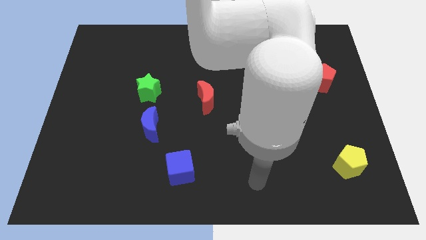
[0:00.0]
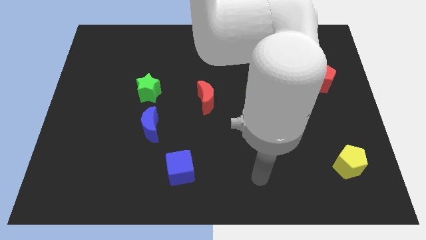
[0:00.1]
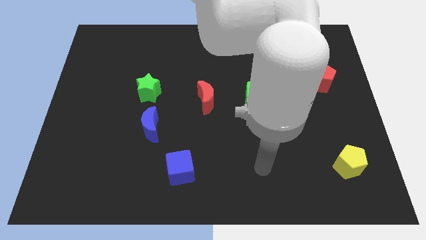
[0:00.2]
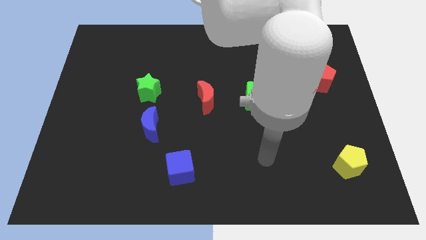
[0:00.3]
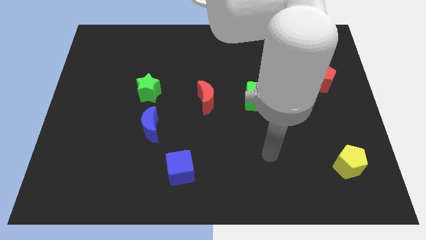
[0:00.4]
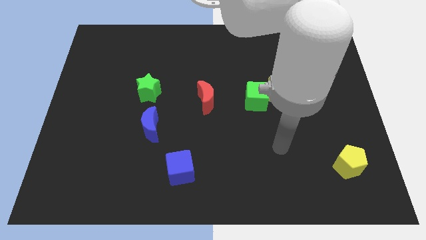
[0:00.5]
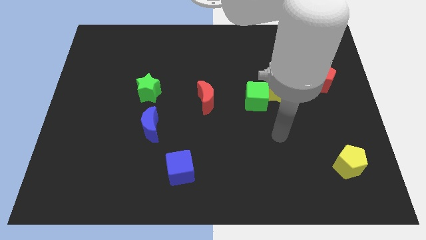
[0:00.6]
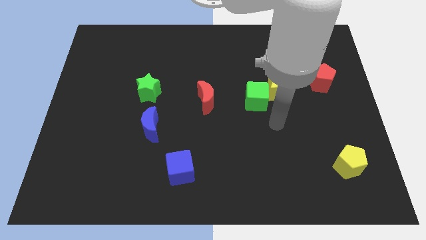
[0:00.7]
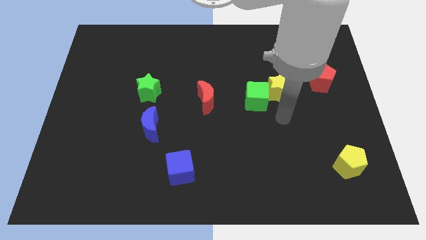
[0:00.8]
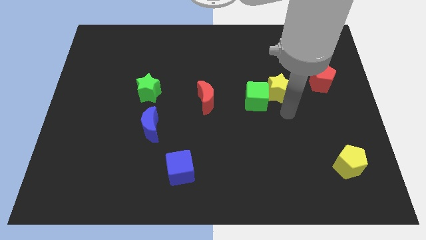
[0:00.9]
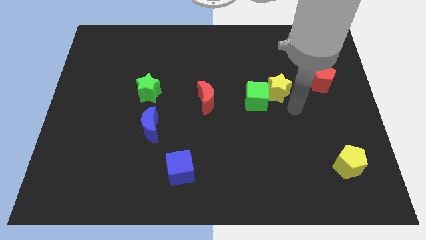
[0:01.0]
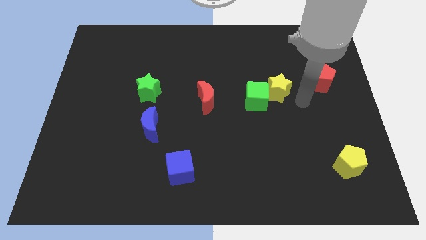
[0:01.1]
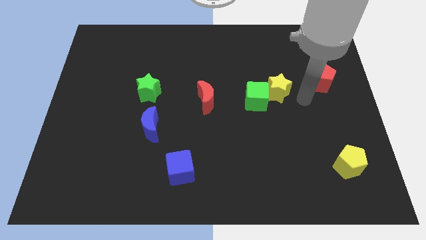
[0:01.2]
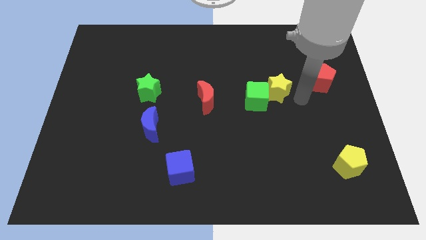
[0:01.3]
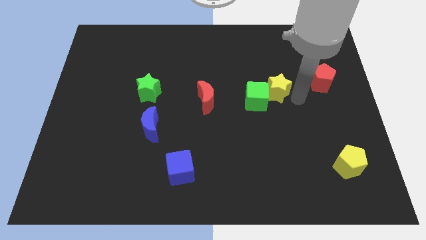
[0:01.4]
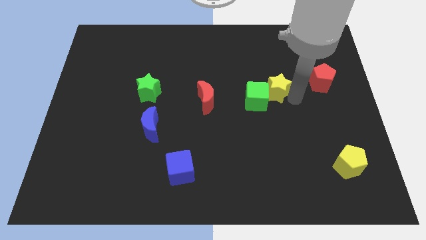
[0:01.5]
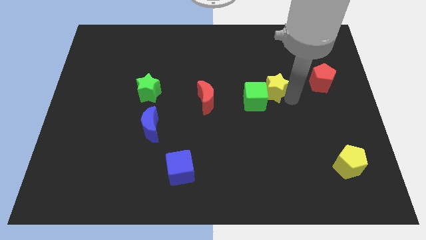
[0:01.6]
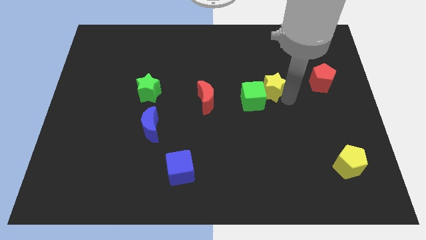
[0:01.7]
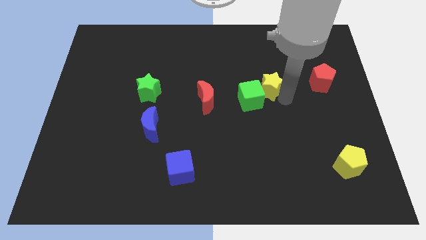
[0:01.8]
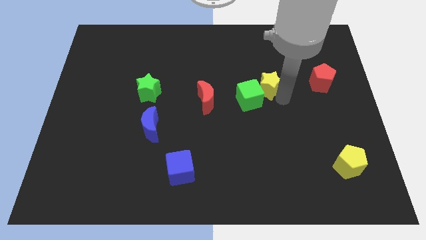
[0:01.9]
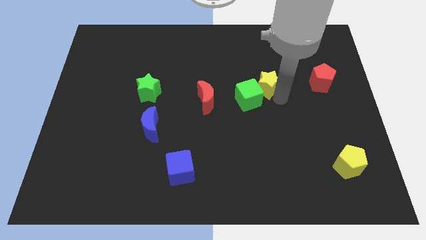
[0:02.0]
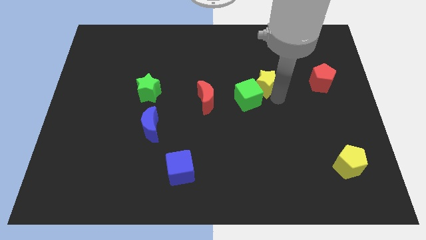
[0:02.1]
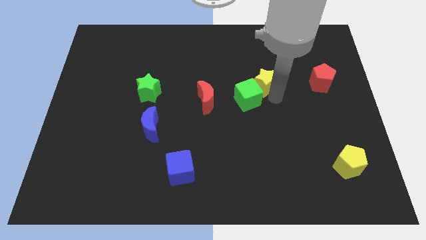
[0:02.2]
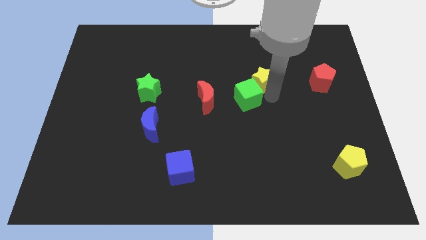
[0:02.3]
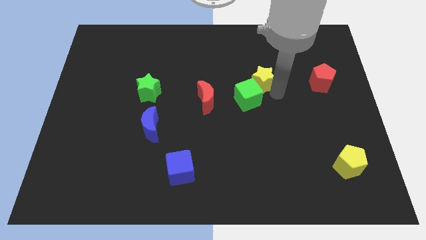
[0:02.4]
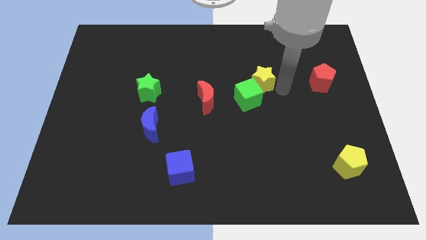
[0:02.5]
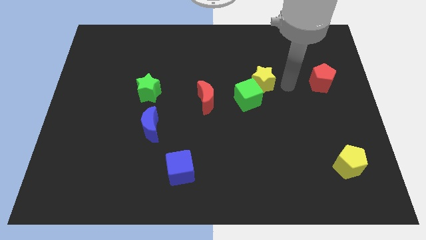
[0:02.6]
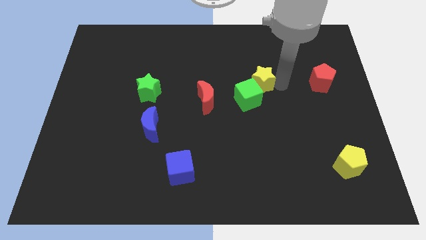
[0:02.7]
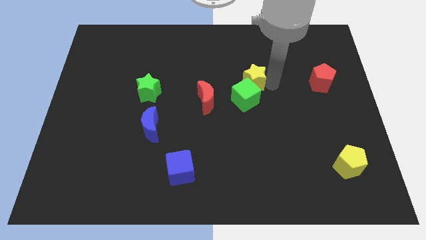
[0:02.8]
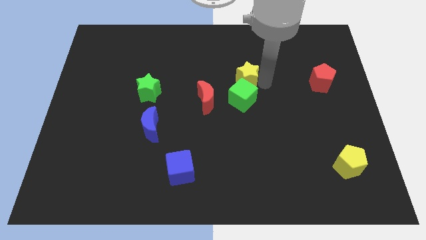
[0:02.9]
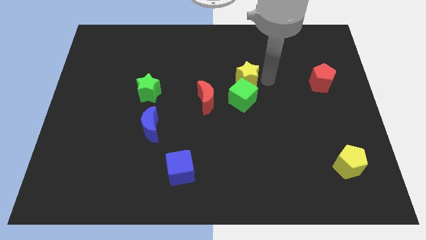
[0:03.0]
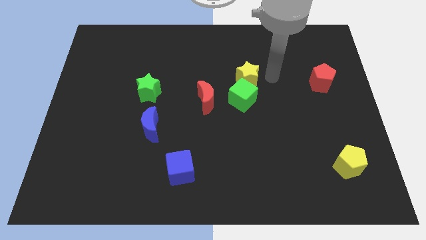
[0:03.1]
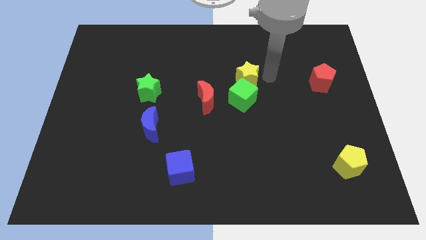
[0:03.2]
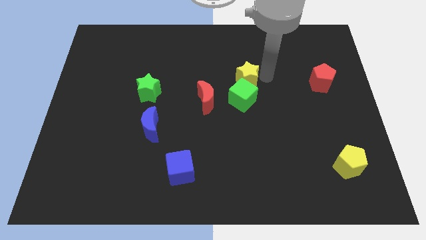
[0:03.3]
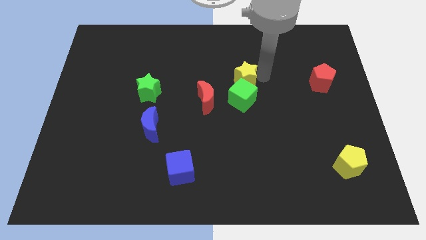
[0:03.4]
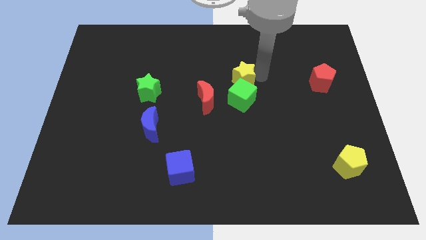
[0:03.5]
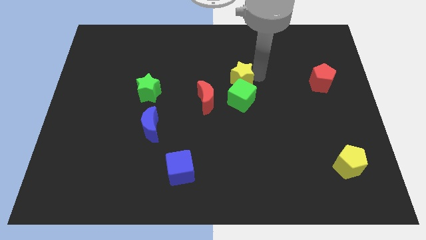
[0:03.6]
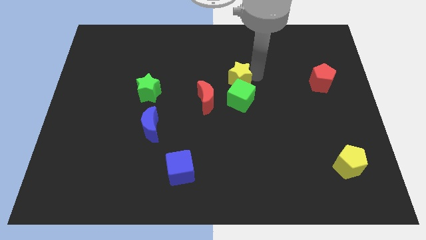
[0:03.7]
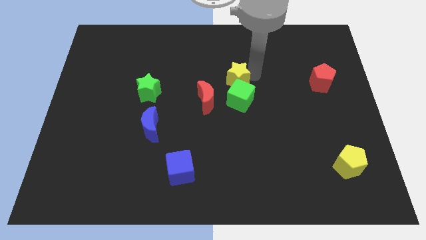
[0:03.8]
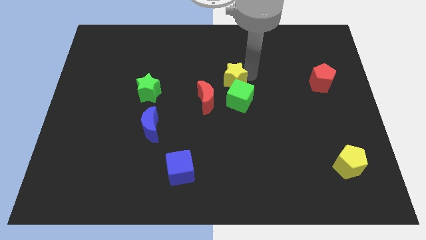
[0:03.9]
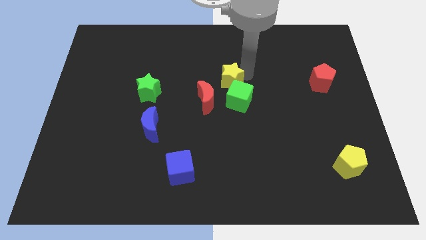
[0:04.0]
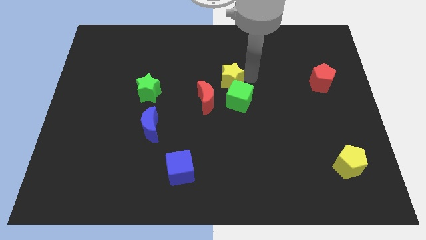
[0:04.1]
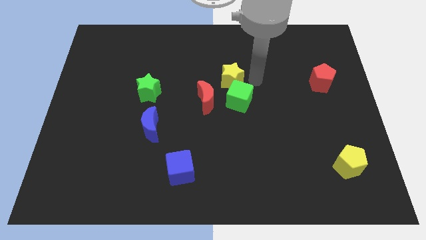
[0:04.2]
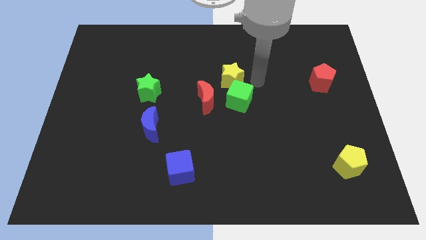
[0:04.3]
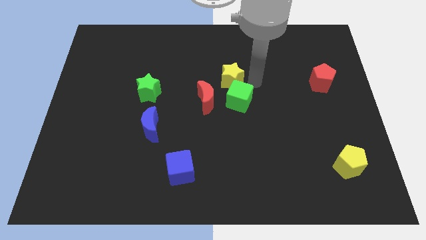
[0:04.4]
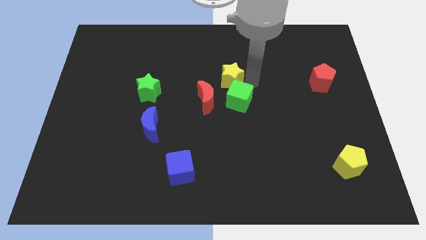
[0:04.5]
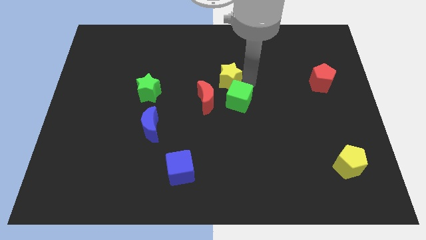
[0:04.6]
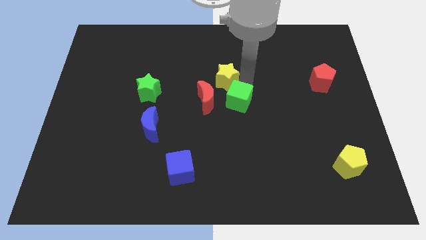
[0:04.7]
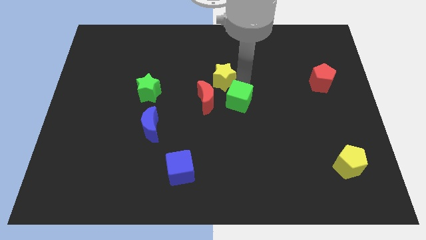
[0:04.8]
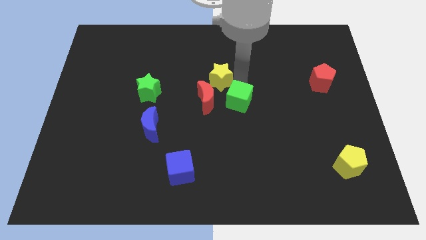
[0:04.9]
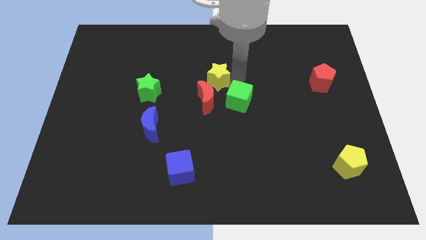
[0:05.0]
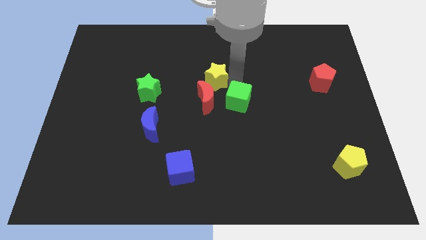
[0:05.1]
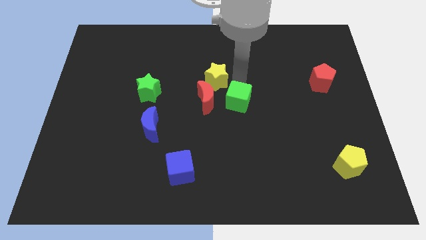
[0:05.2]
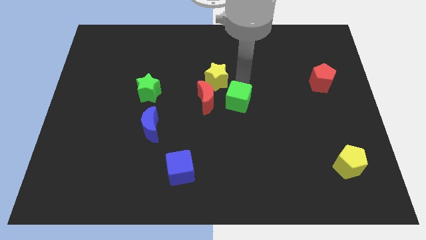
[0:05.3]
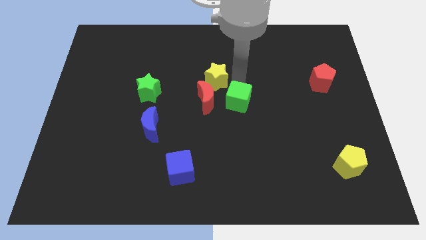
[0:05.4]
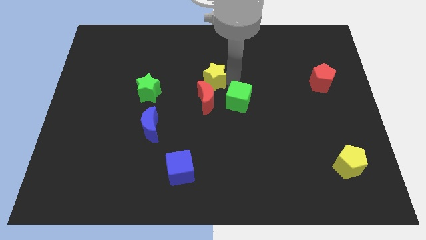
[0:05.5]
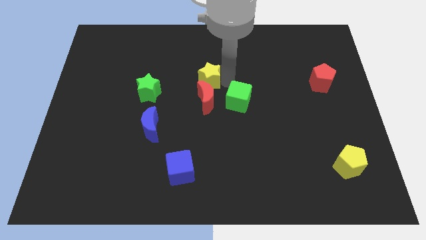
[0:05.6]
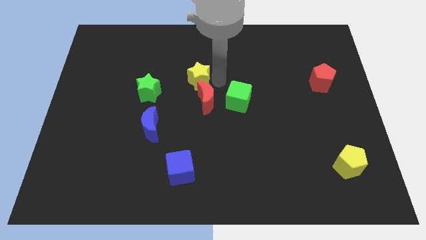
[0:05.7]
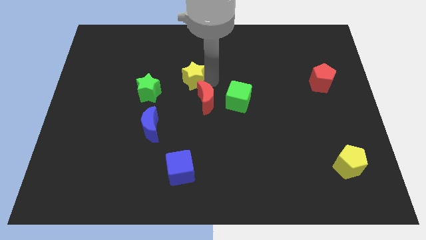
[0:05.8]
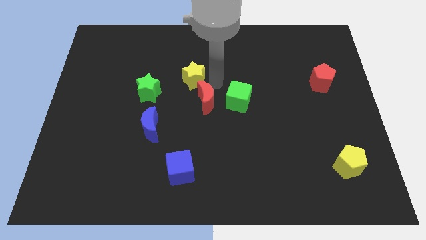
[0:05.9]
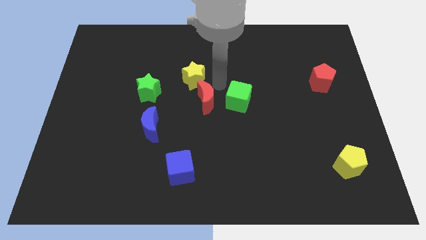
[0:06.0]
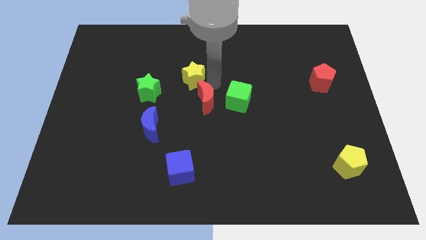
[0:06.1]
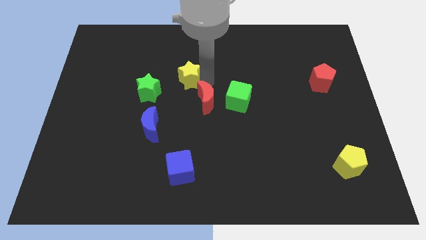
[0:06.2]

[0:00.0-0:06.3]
put the yellow star diagonally up and to the right of the green star

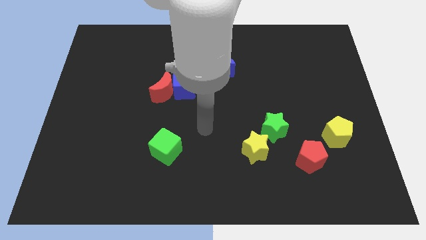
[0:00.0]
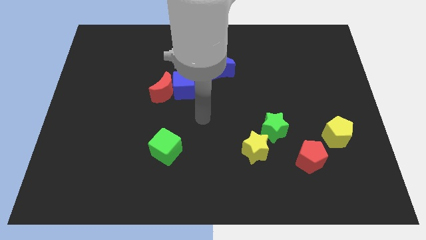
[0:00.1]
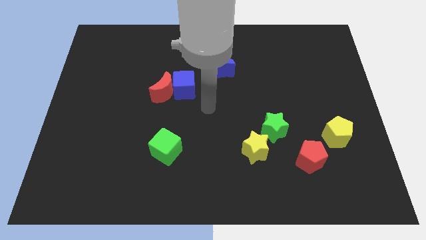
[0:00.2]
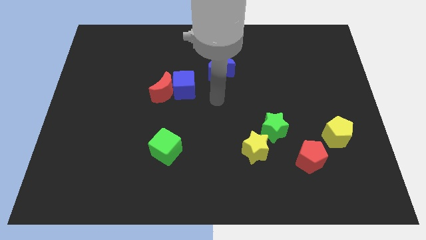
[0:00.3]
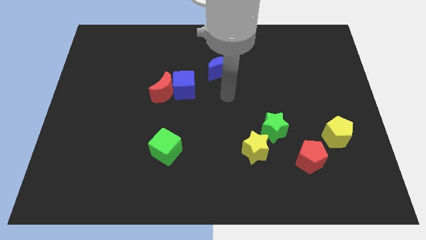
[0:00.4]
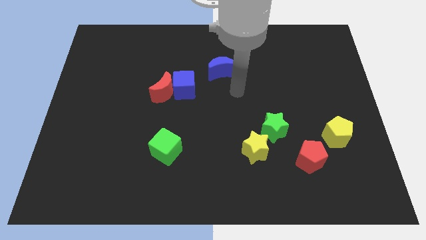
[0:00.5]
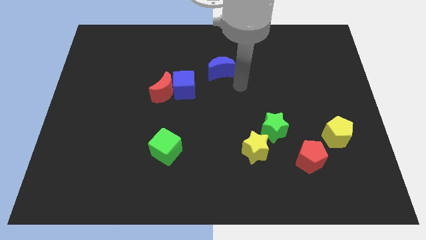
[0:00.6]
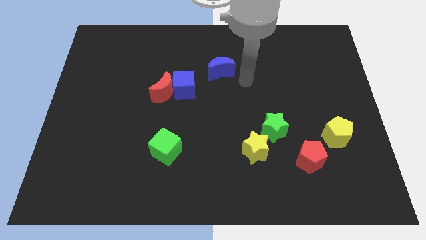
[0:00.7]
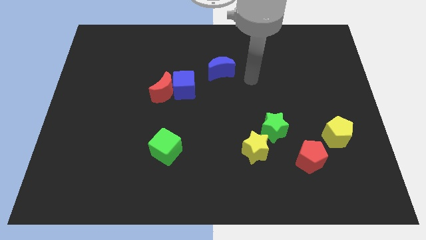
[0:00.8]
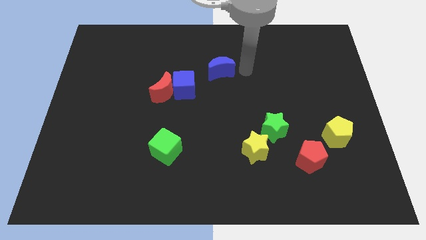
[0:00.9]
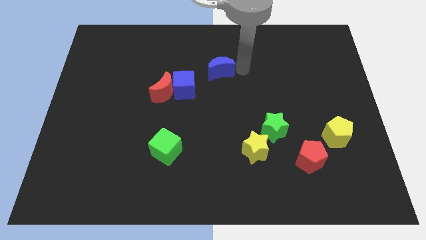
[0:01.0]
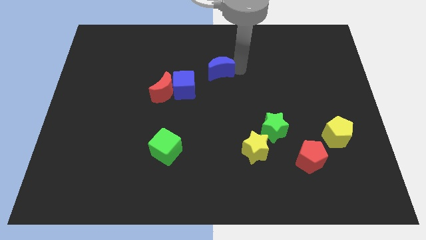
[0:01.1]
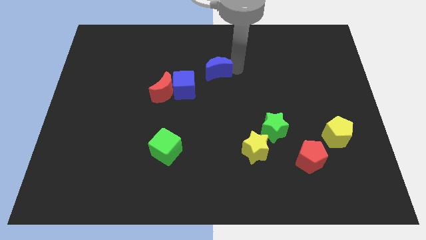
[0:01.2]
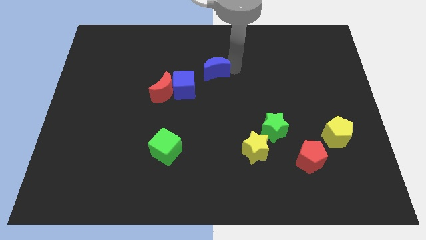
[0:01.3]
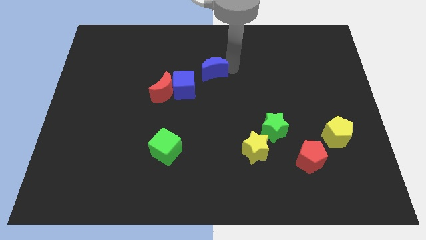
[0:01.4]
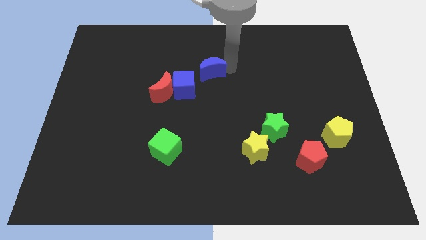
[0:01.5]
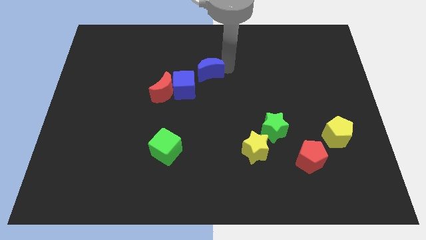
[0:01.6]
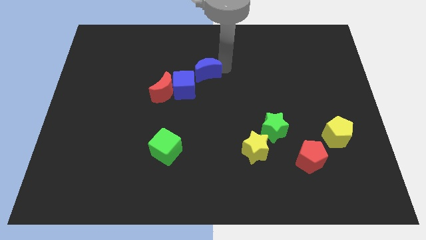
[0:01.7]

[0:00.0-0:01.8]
push the blue moon to the top right of the red moon
